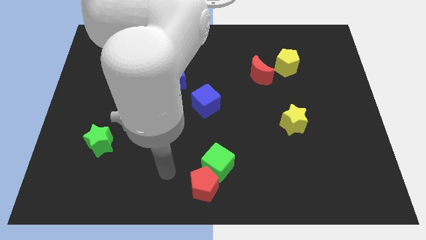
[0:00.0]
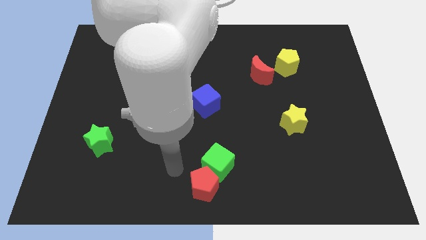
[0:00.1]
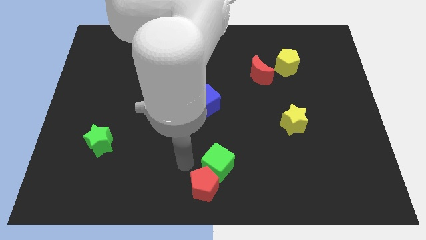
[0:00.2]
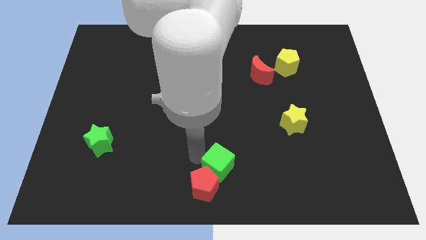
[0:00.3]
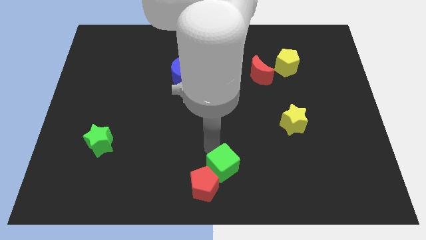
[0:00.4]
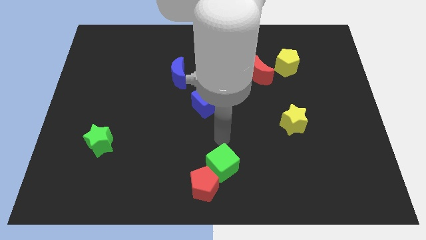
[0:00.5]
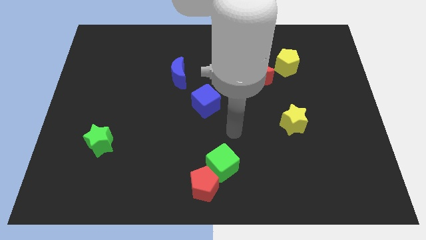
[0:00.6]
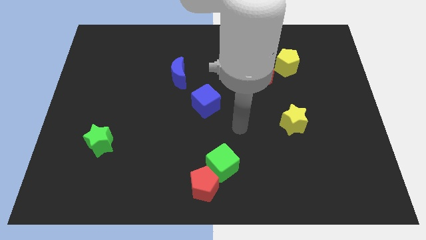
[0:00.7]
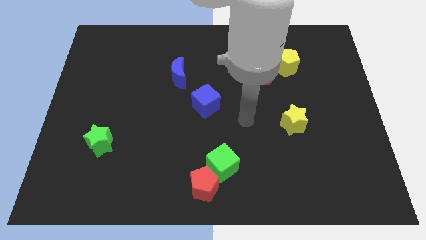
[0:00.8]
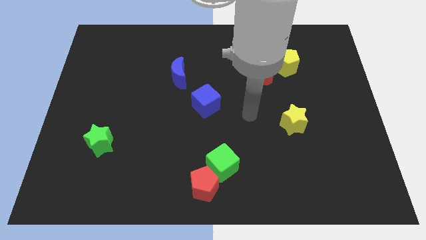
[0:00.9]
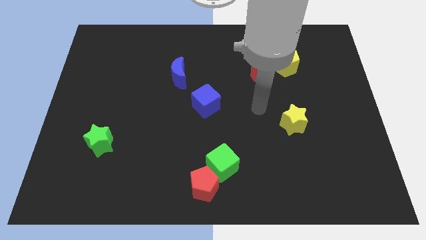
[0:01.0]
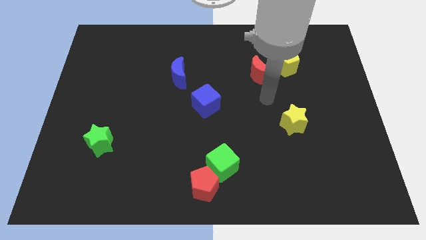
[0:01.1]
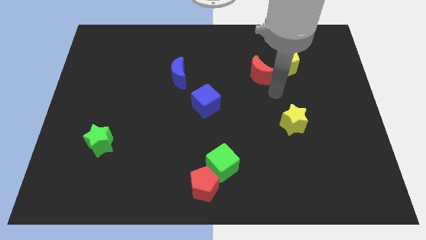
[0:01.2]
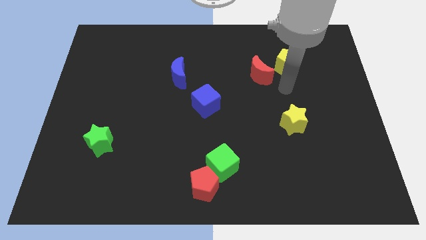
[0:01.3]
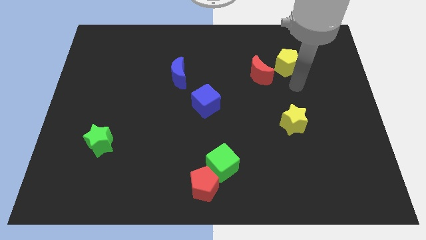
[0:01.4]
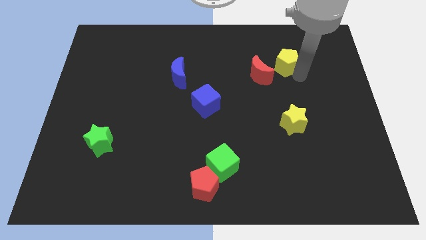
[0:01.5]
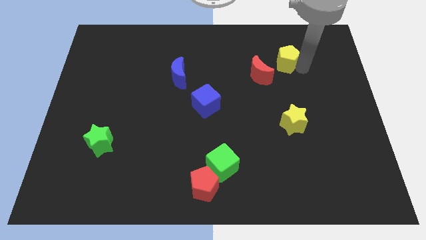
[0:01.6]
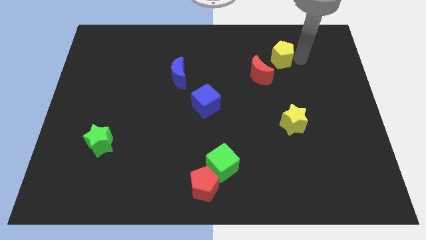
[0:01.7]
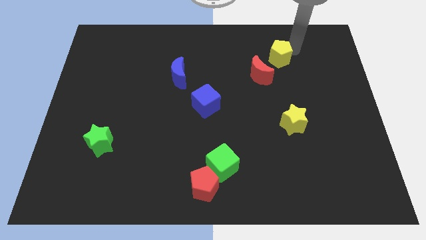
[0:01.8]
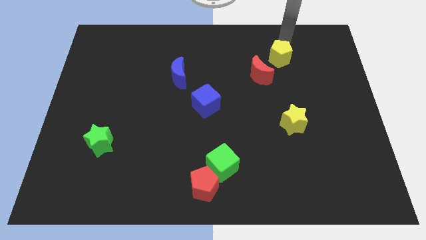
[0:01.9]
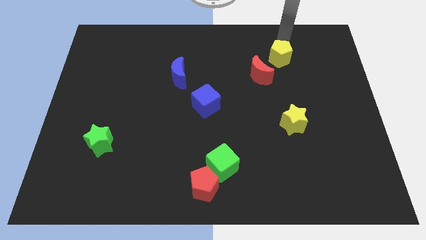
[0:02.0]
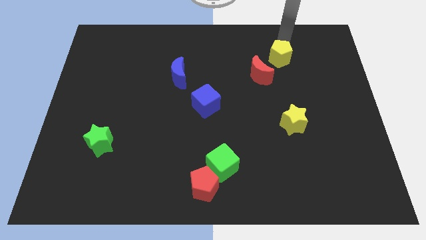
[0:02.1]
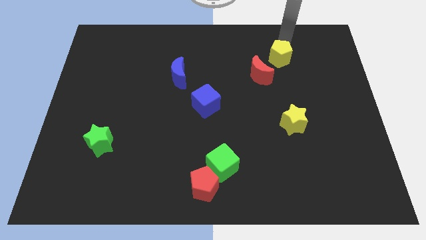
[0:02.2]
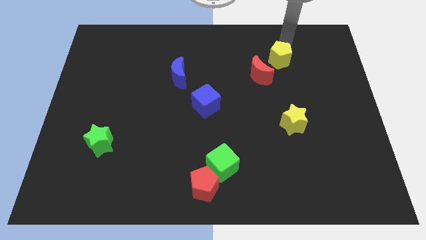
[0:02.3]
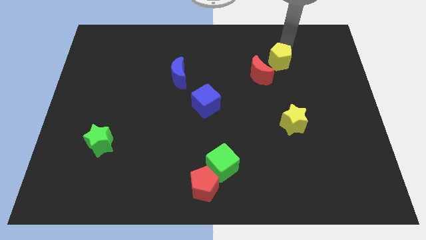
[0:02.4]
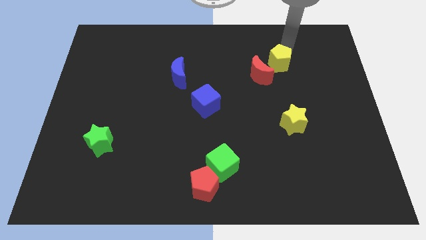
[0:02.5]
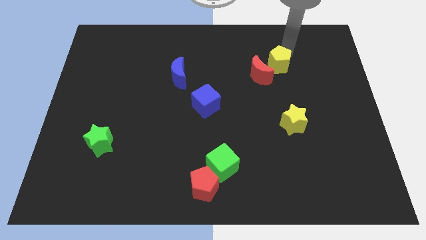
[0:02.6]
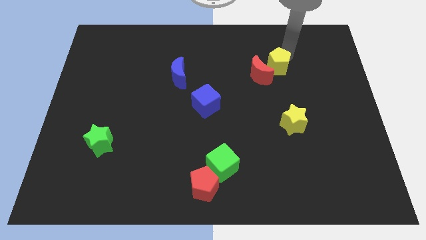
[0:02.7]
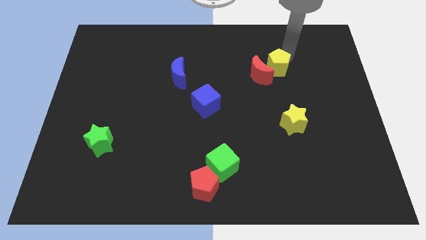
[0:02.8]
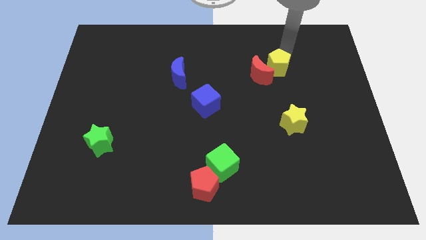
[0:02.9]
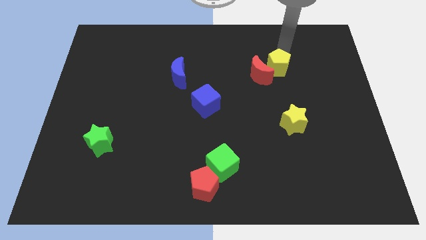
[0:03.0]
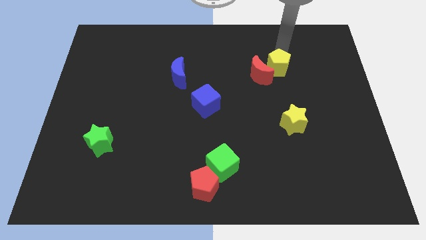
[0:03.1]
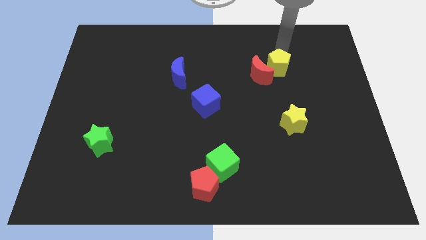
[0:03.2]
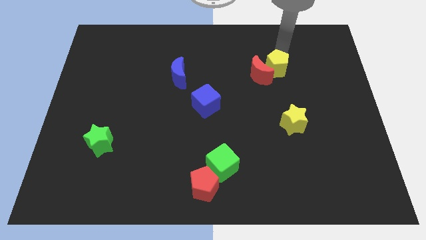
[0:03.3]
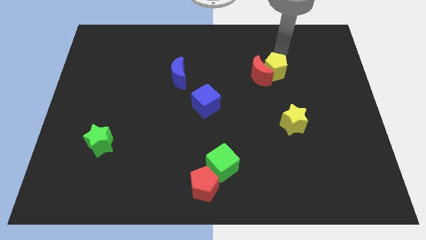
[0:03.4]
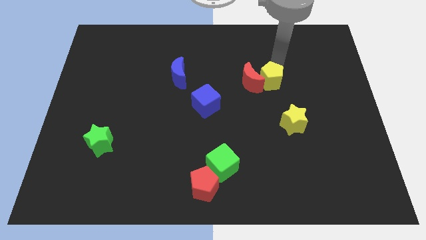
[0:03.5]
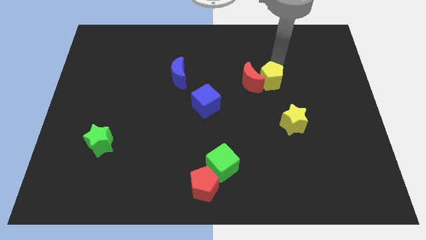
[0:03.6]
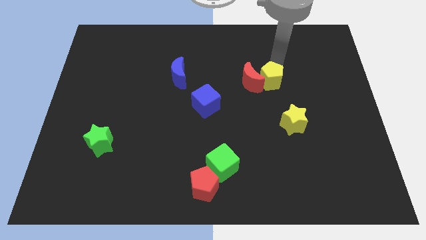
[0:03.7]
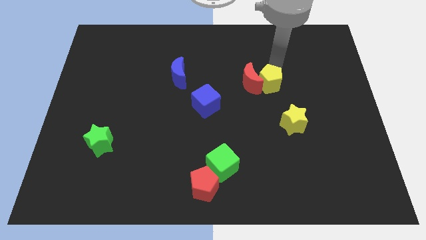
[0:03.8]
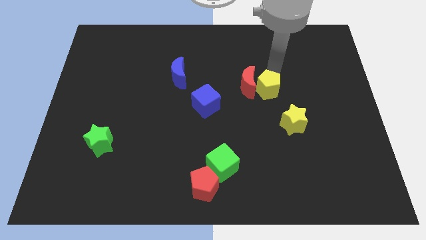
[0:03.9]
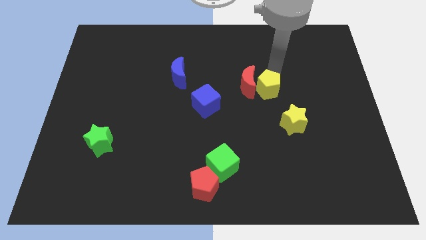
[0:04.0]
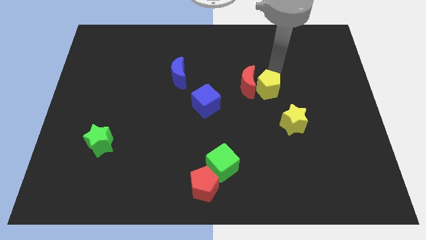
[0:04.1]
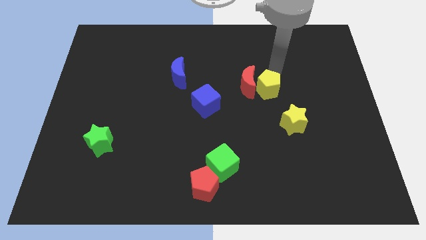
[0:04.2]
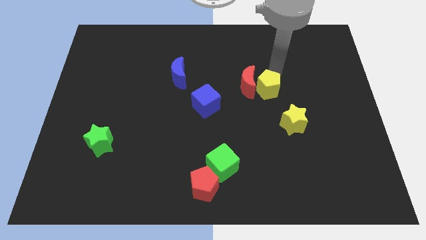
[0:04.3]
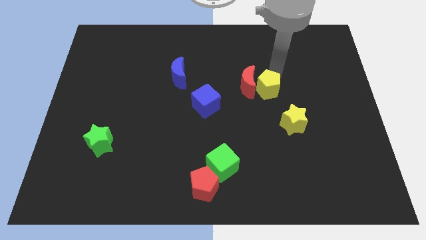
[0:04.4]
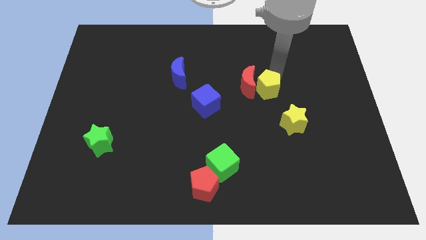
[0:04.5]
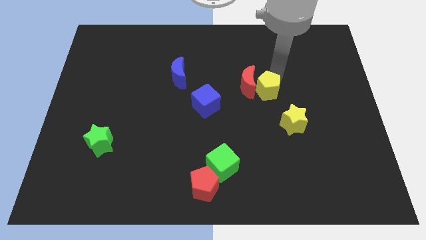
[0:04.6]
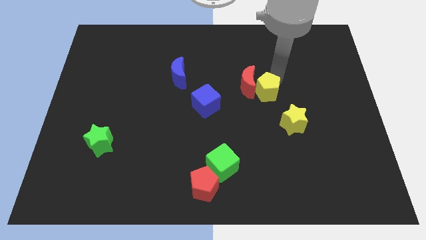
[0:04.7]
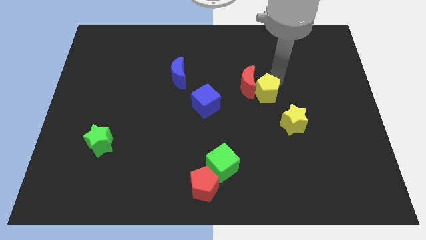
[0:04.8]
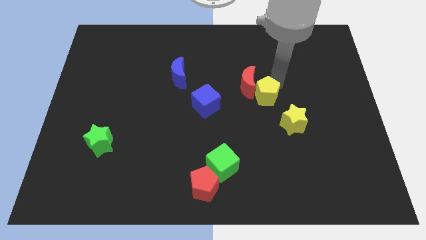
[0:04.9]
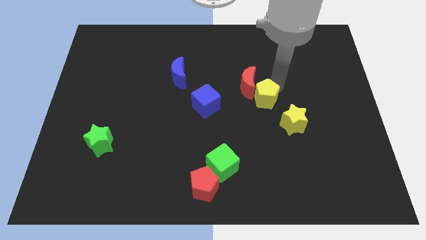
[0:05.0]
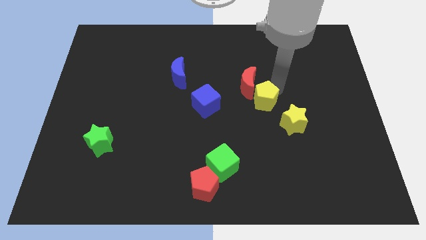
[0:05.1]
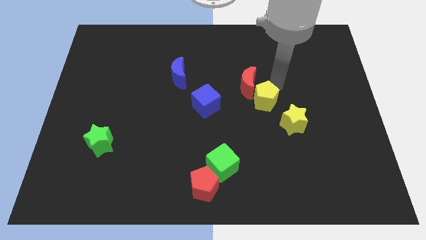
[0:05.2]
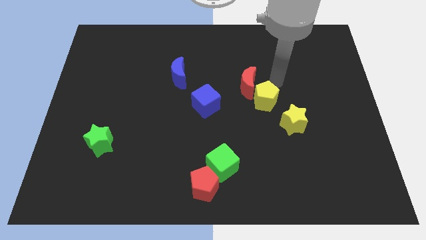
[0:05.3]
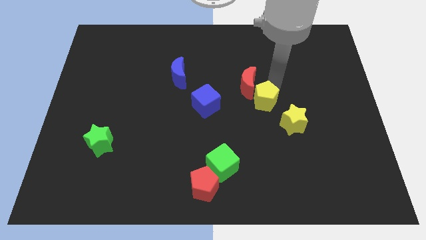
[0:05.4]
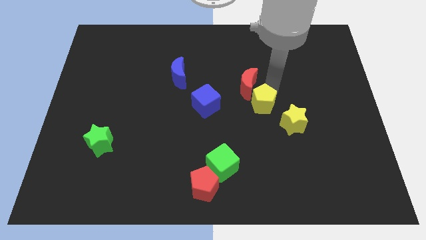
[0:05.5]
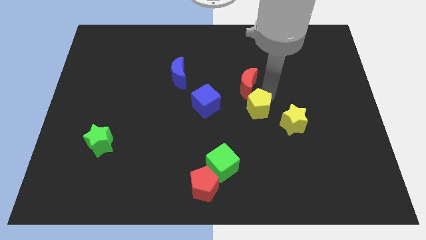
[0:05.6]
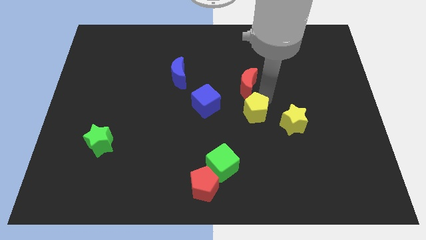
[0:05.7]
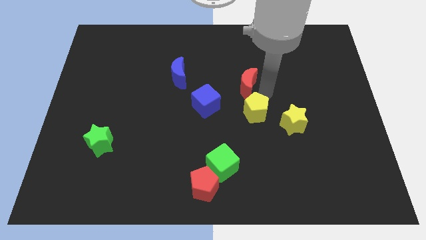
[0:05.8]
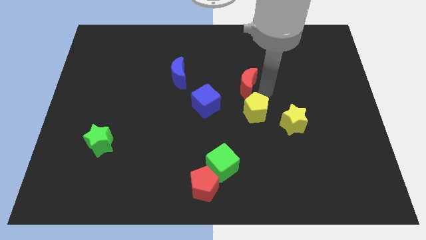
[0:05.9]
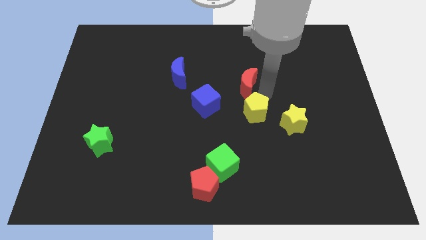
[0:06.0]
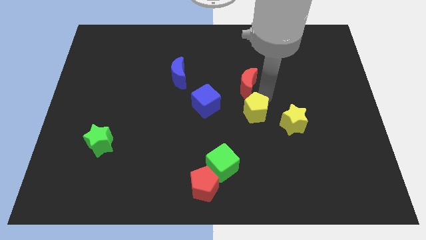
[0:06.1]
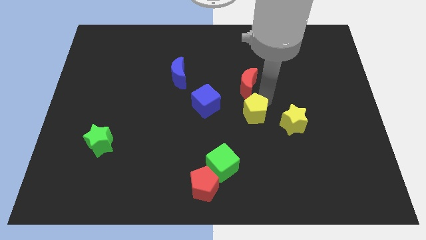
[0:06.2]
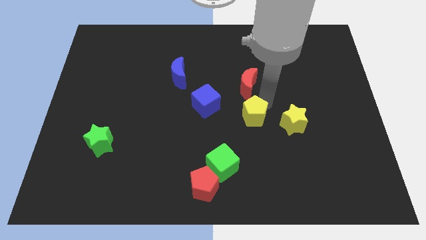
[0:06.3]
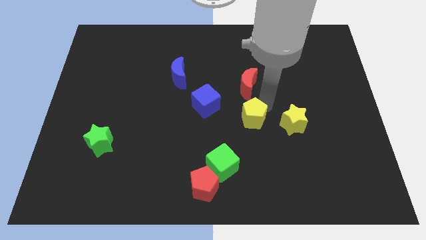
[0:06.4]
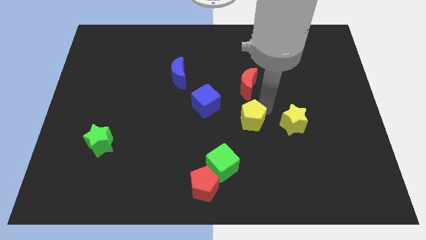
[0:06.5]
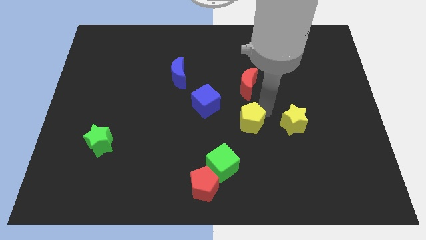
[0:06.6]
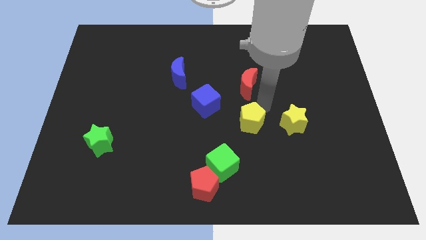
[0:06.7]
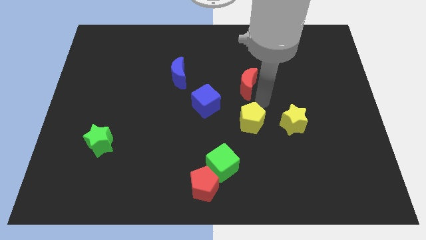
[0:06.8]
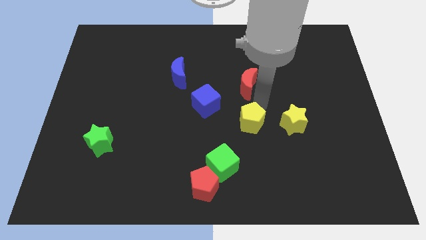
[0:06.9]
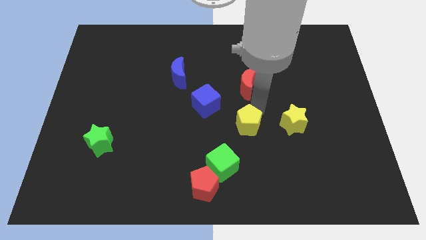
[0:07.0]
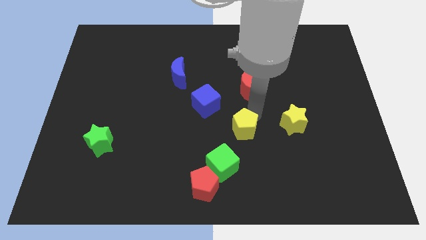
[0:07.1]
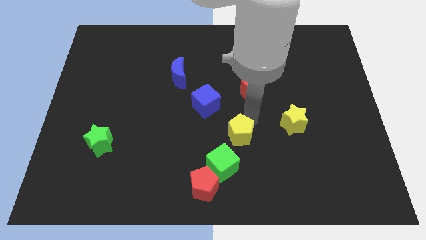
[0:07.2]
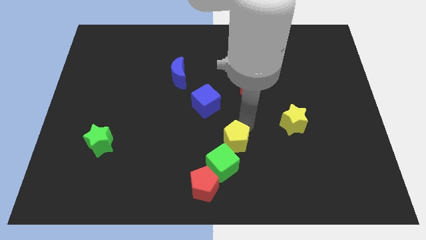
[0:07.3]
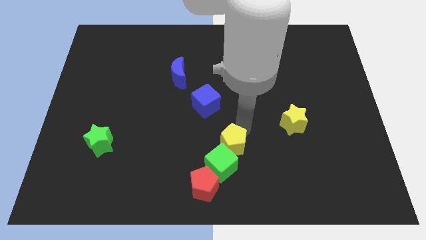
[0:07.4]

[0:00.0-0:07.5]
move the yellow pentagon next to the green cube

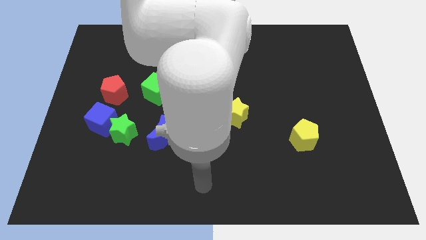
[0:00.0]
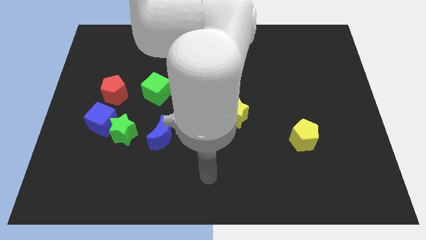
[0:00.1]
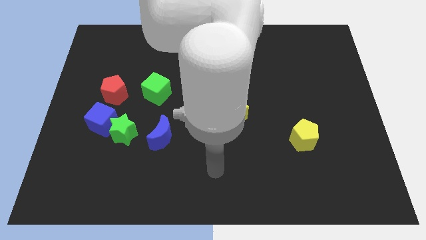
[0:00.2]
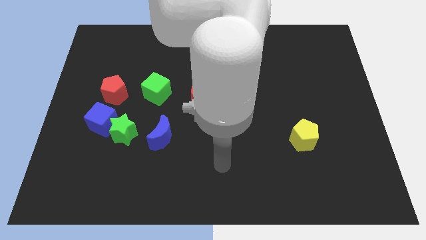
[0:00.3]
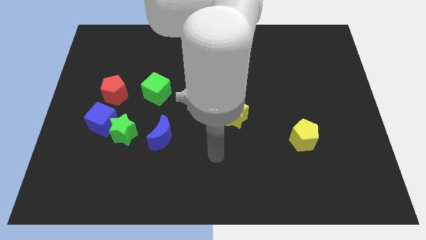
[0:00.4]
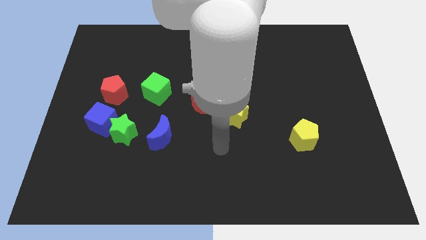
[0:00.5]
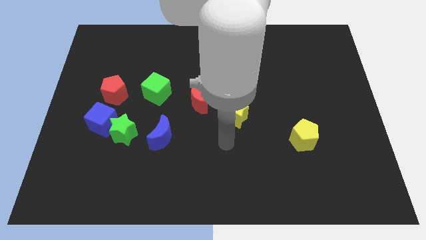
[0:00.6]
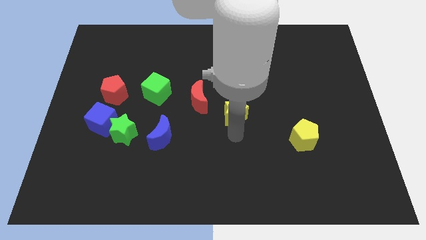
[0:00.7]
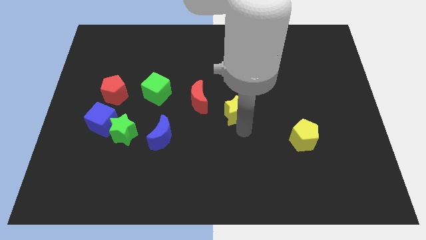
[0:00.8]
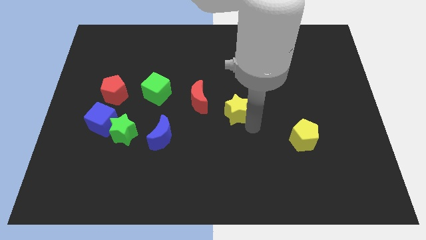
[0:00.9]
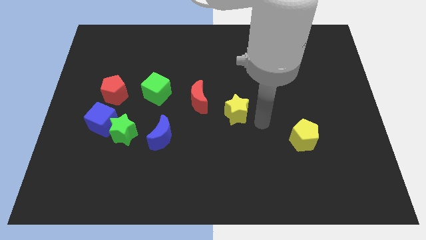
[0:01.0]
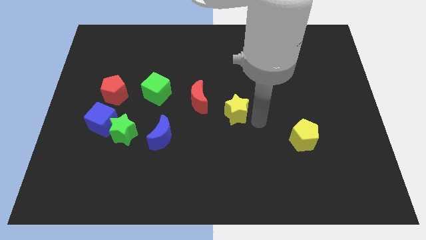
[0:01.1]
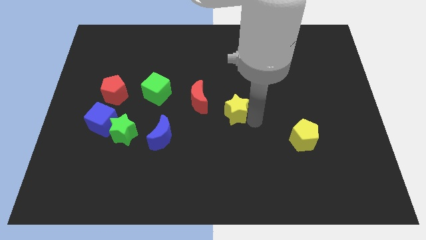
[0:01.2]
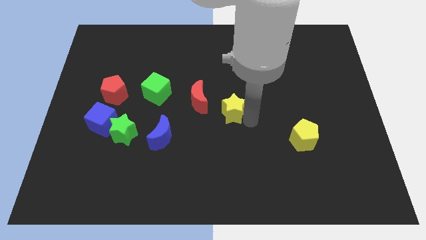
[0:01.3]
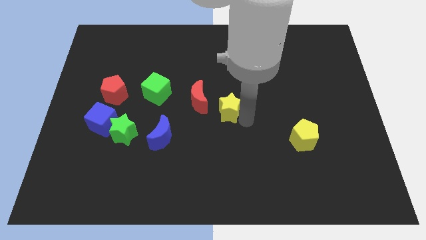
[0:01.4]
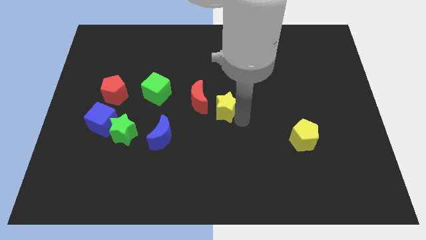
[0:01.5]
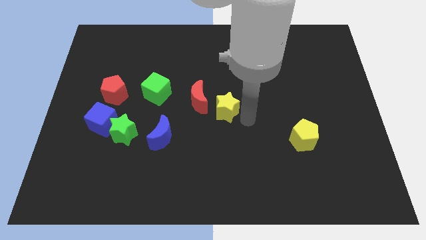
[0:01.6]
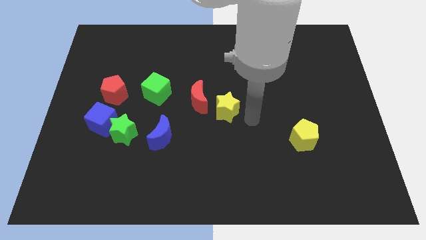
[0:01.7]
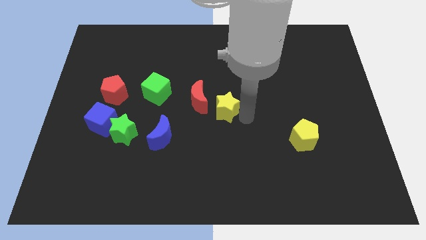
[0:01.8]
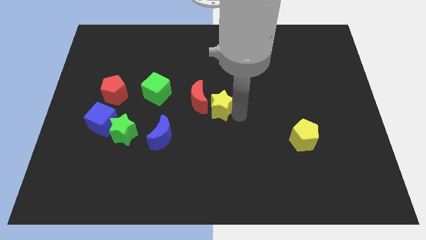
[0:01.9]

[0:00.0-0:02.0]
push the yellow star to the red moon
